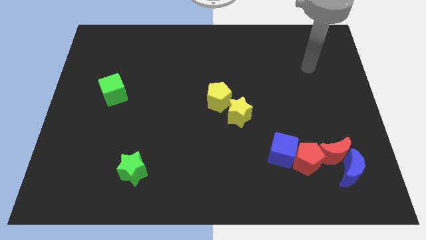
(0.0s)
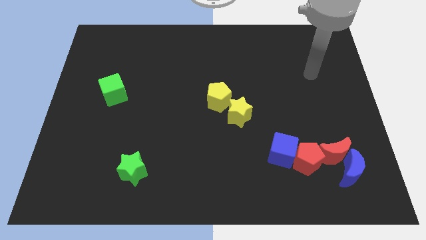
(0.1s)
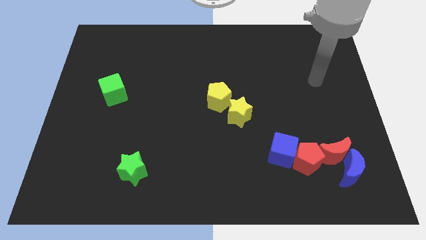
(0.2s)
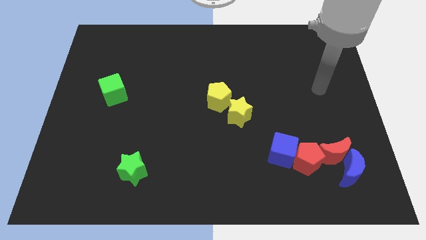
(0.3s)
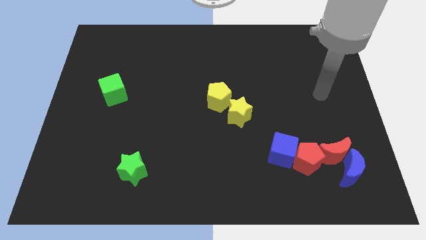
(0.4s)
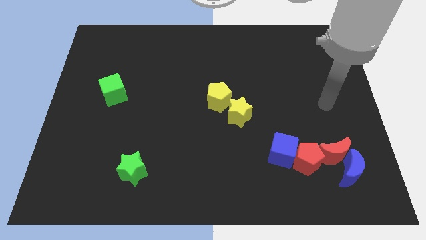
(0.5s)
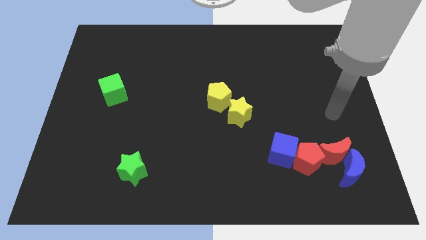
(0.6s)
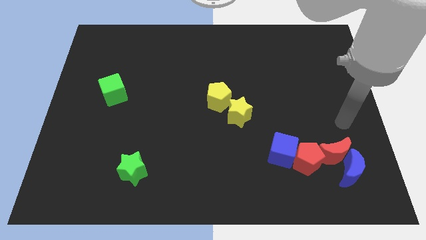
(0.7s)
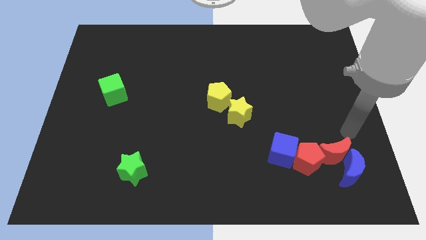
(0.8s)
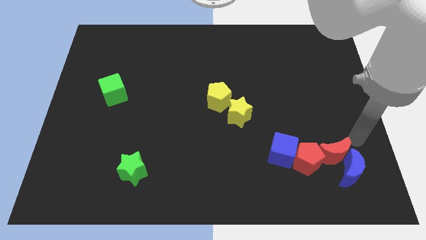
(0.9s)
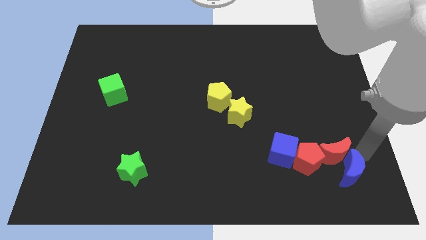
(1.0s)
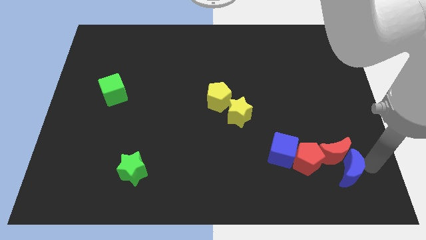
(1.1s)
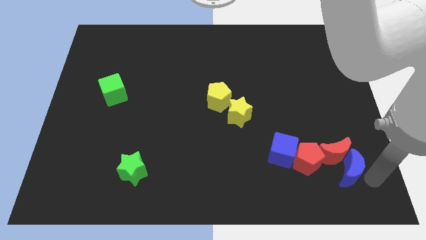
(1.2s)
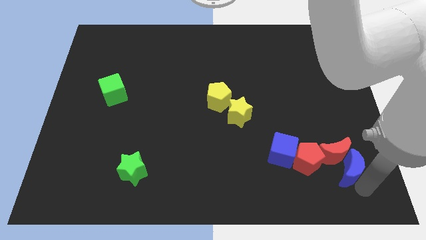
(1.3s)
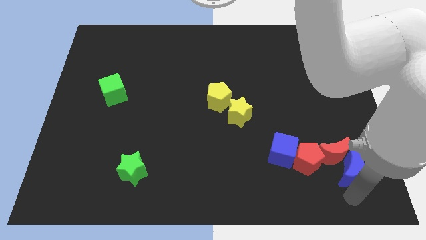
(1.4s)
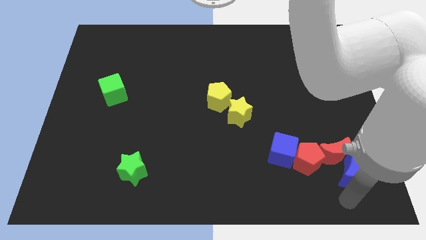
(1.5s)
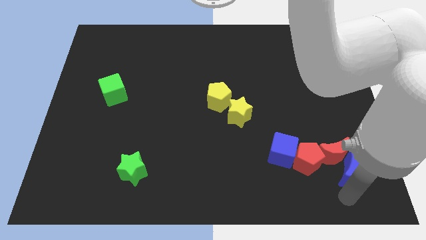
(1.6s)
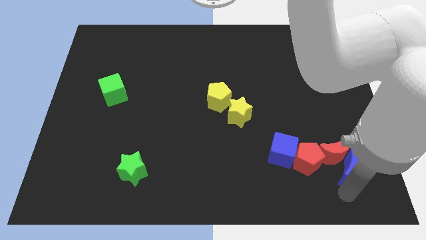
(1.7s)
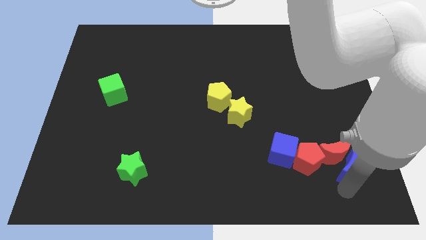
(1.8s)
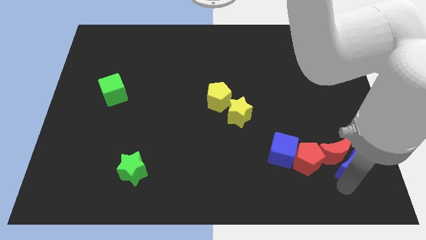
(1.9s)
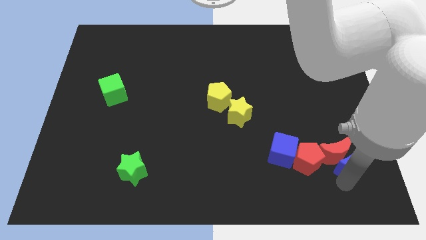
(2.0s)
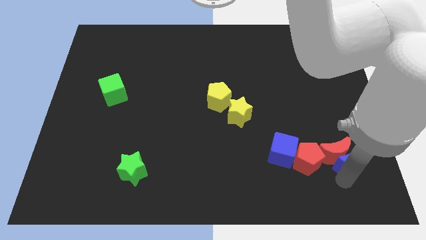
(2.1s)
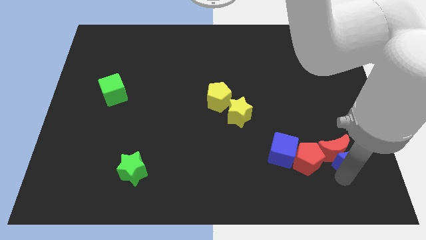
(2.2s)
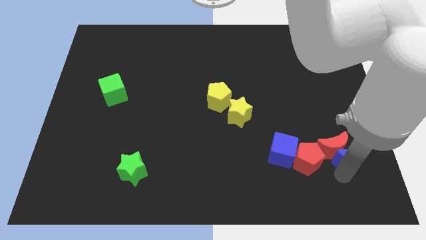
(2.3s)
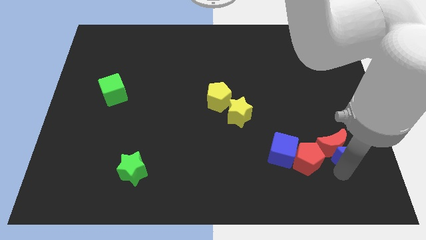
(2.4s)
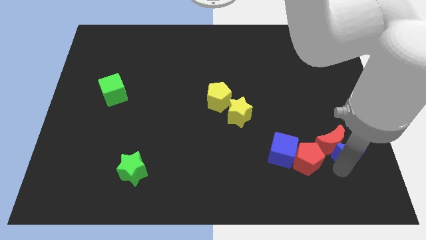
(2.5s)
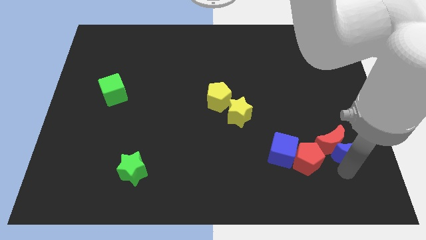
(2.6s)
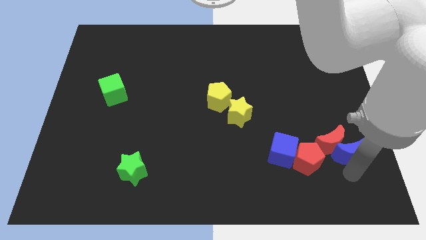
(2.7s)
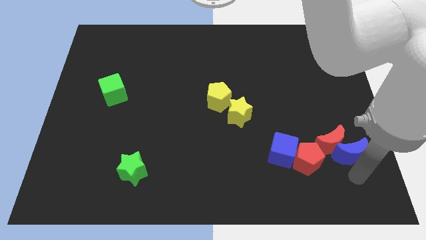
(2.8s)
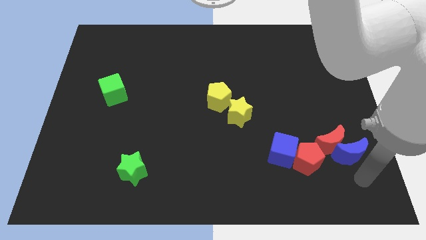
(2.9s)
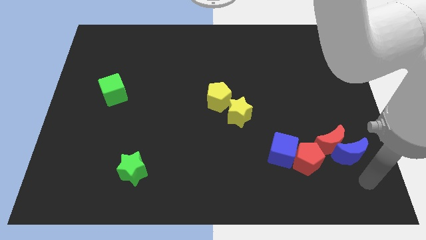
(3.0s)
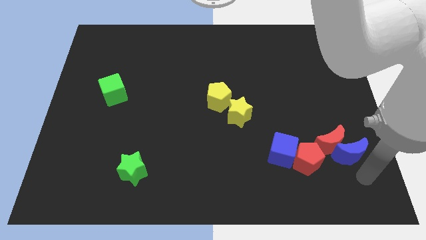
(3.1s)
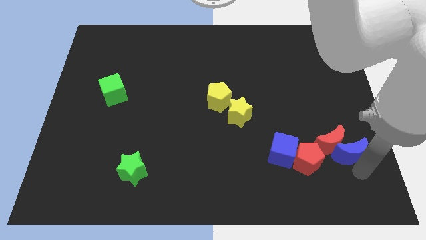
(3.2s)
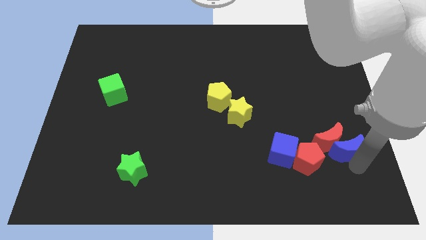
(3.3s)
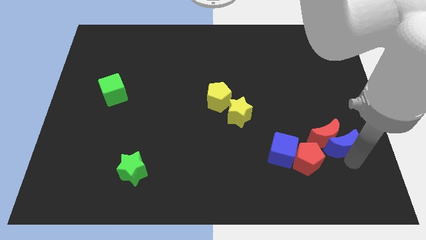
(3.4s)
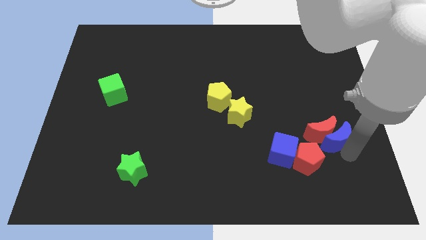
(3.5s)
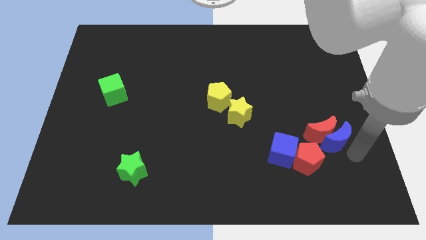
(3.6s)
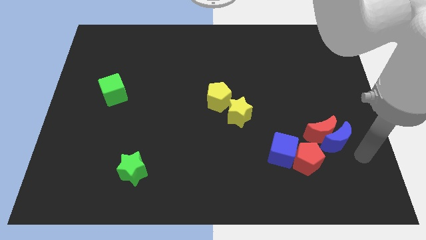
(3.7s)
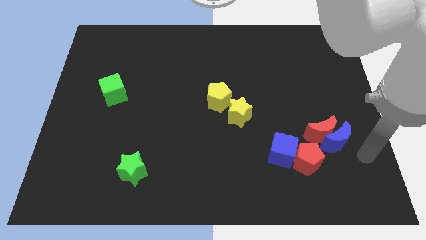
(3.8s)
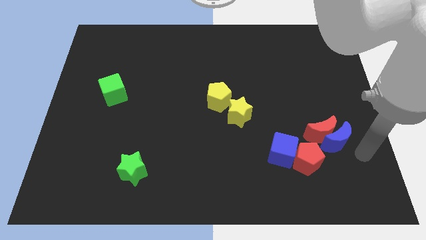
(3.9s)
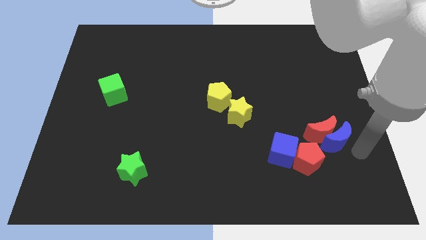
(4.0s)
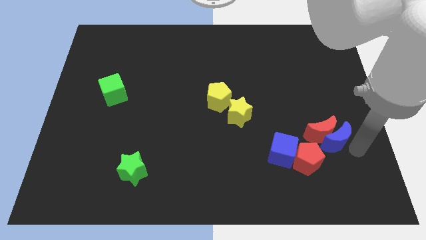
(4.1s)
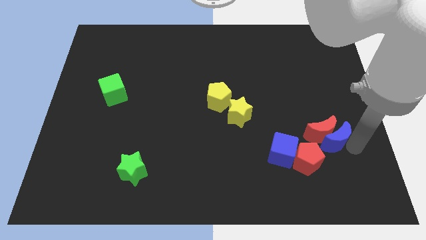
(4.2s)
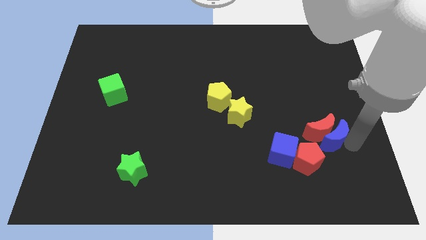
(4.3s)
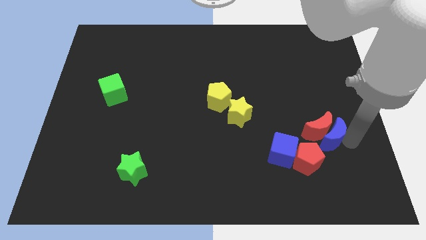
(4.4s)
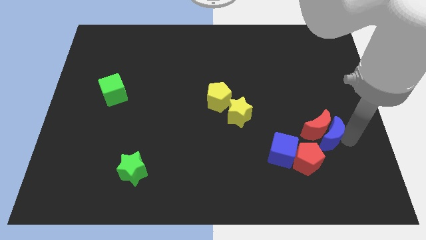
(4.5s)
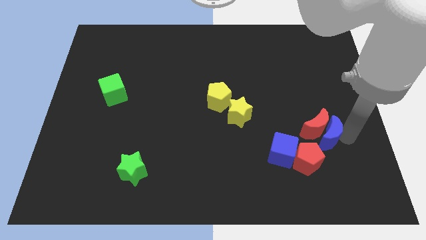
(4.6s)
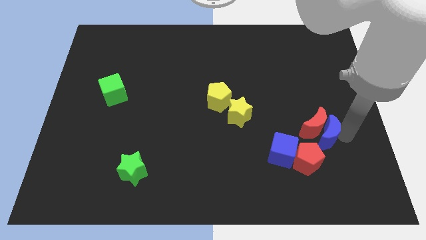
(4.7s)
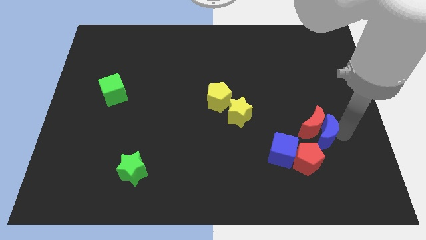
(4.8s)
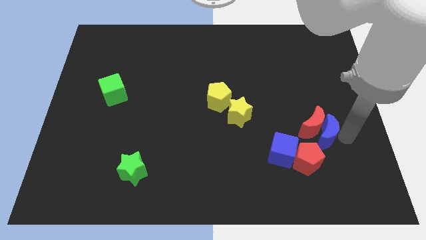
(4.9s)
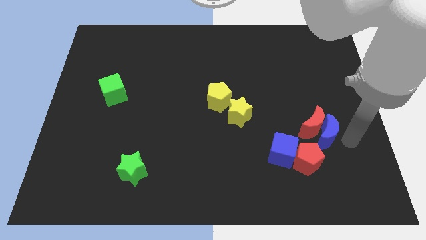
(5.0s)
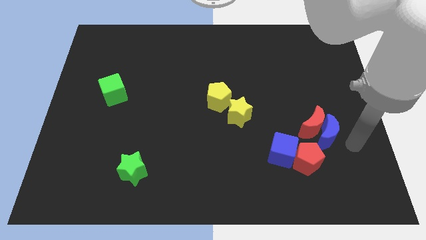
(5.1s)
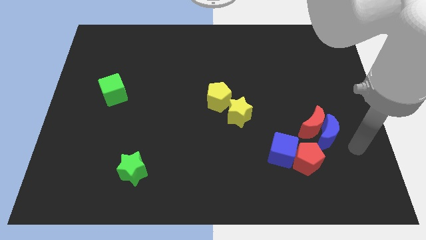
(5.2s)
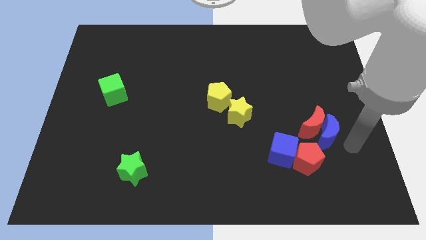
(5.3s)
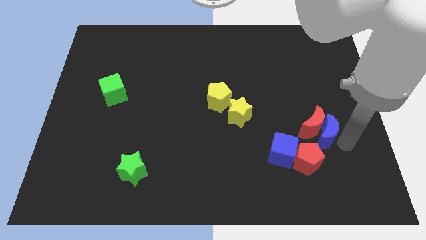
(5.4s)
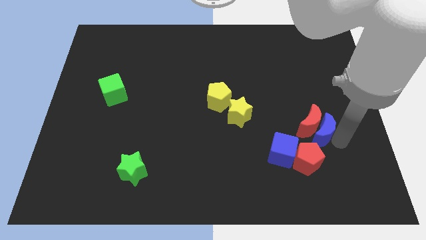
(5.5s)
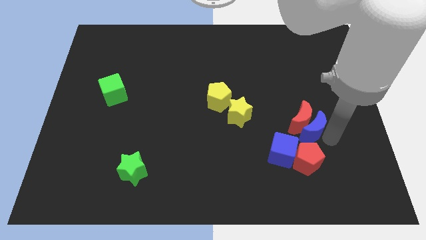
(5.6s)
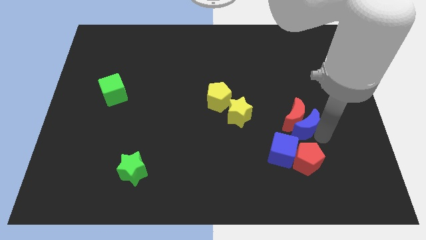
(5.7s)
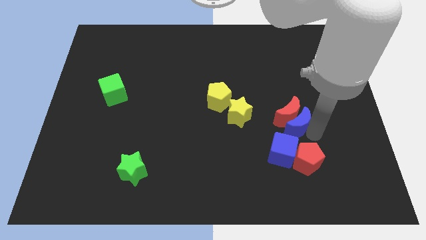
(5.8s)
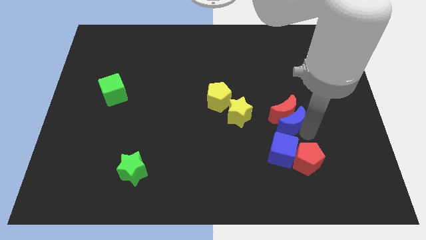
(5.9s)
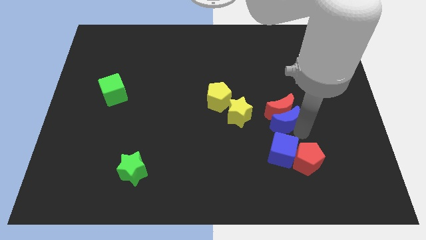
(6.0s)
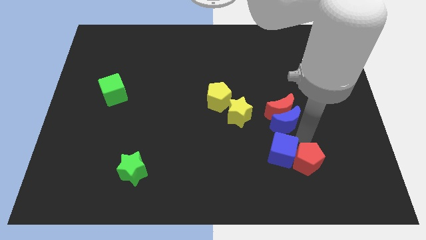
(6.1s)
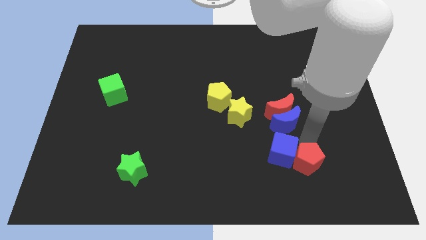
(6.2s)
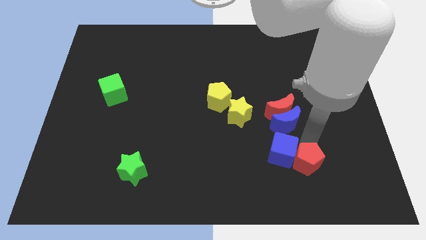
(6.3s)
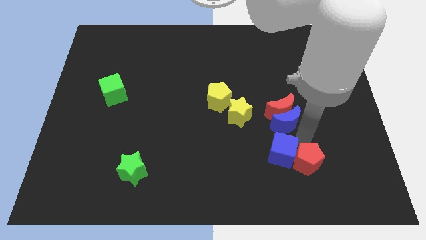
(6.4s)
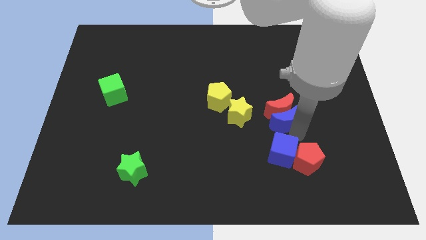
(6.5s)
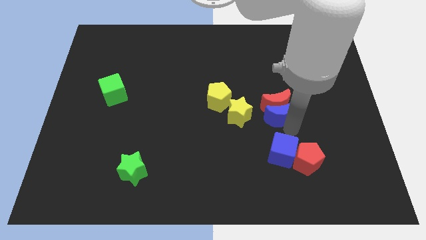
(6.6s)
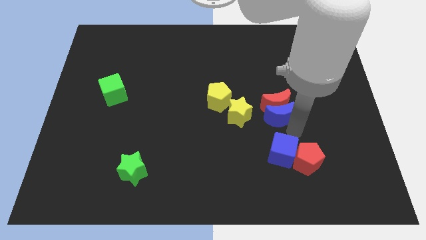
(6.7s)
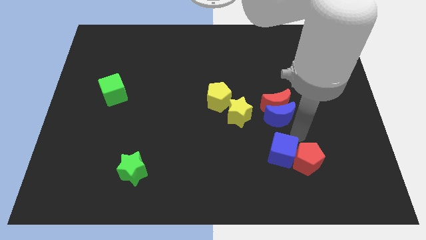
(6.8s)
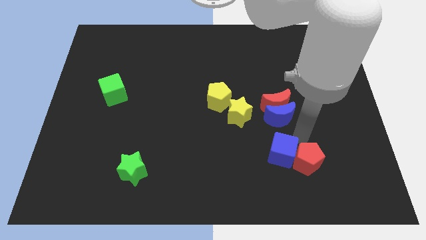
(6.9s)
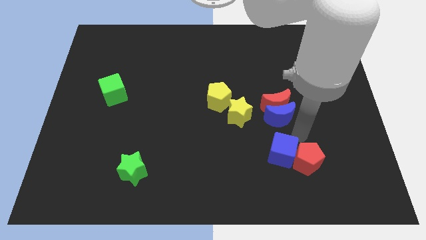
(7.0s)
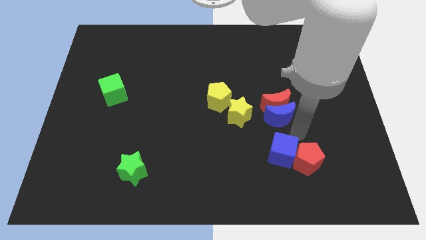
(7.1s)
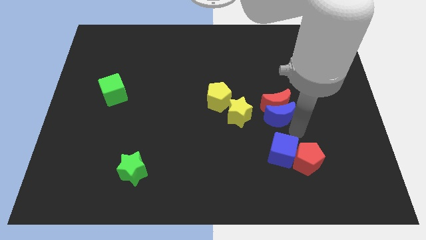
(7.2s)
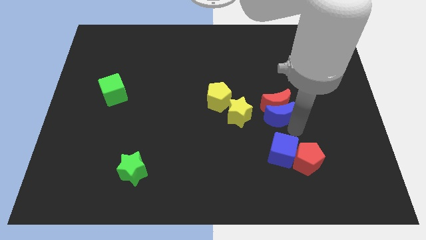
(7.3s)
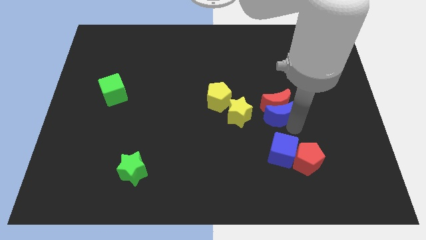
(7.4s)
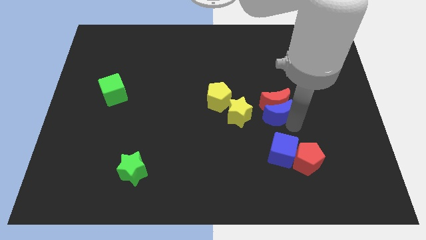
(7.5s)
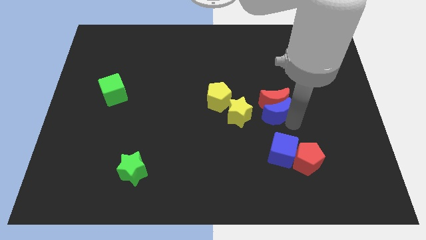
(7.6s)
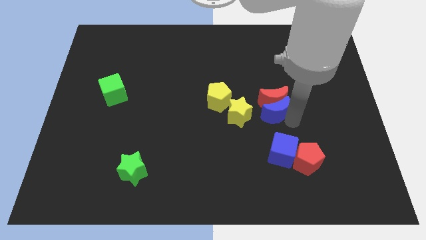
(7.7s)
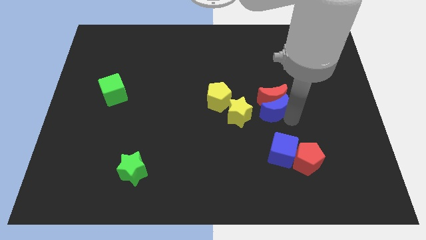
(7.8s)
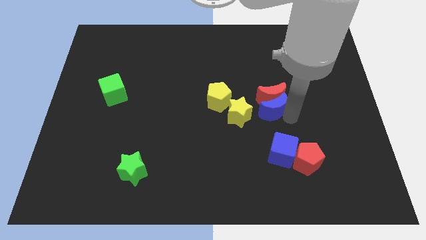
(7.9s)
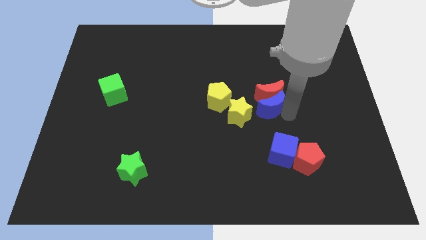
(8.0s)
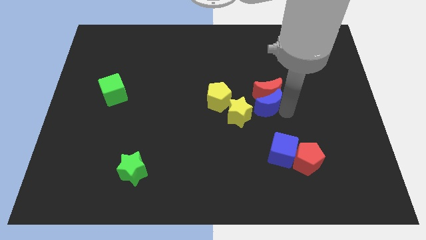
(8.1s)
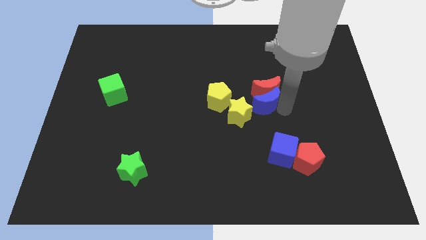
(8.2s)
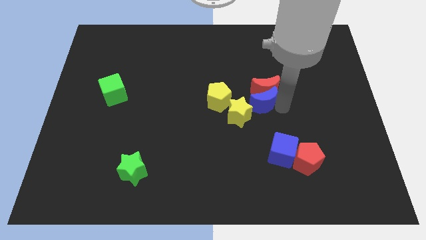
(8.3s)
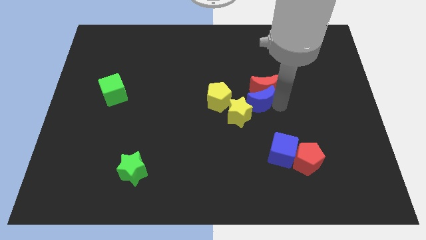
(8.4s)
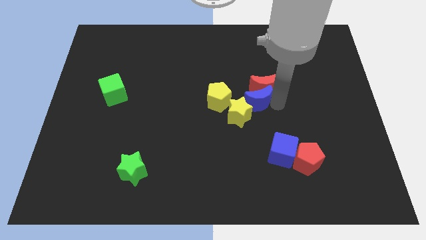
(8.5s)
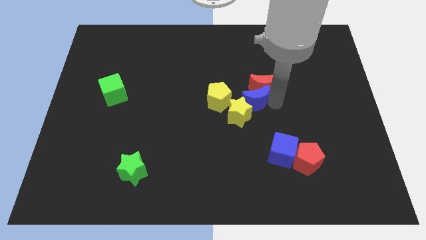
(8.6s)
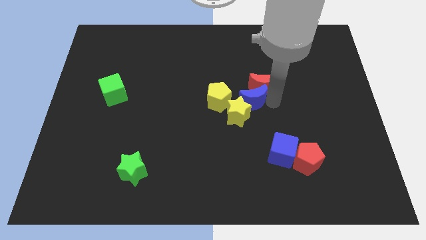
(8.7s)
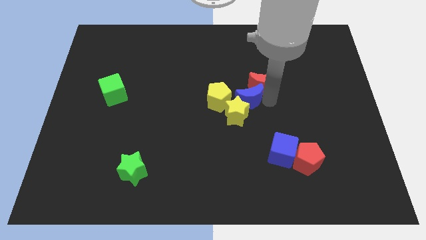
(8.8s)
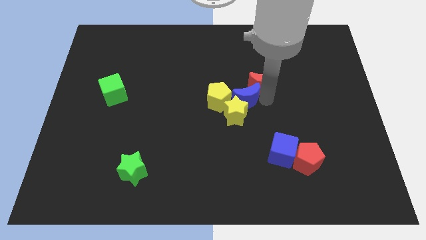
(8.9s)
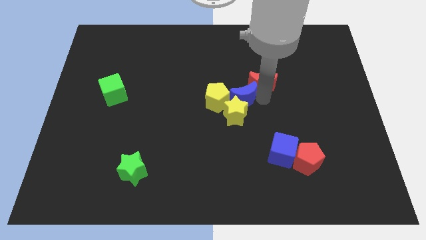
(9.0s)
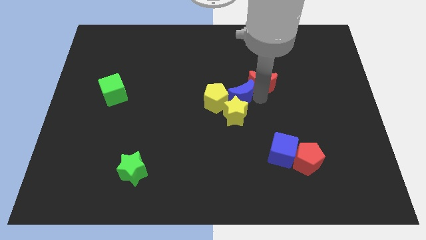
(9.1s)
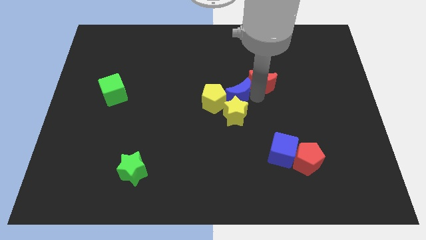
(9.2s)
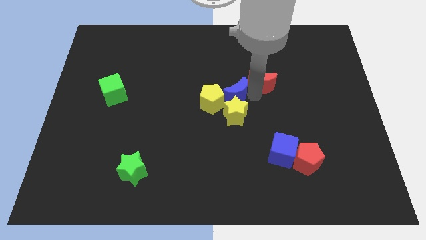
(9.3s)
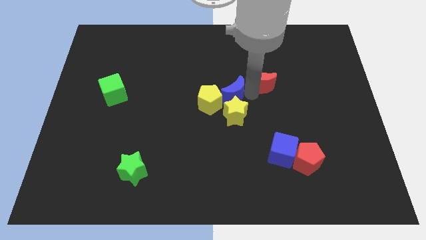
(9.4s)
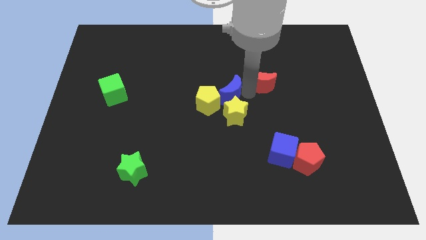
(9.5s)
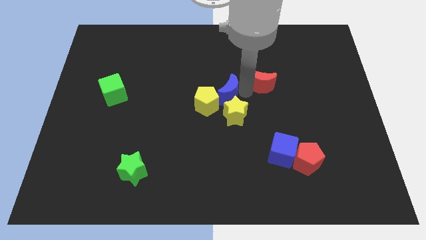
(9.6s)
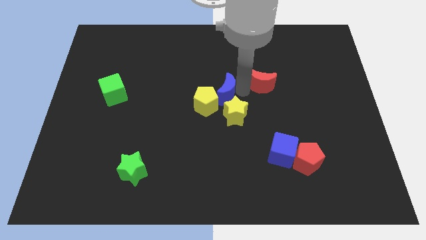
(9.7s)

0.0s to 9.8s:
push the blue moon close to the yellow pentagon
